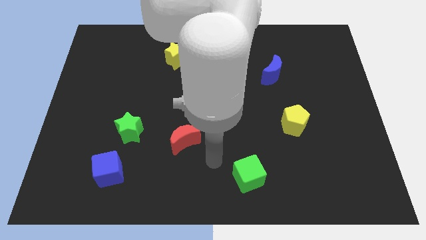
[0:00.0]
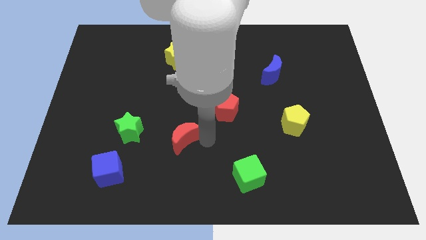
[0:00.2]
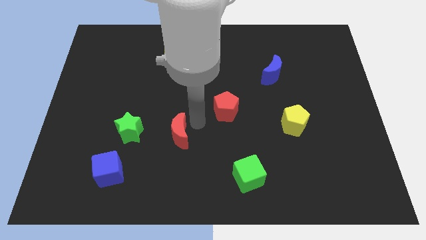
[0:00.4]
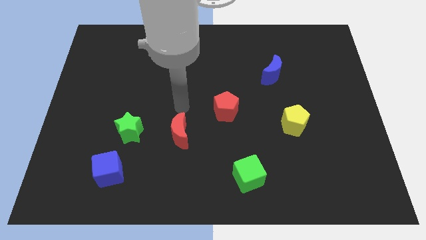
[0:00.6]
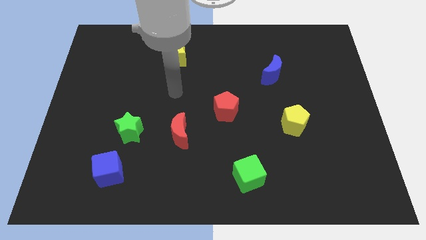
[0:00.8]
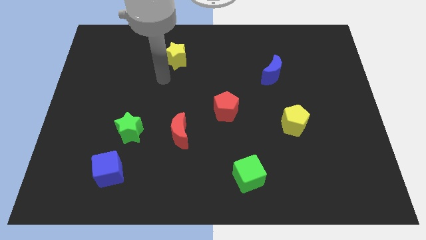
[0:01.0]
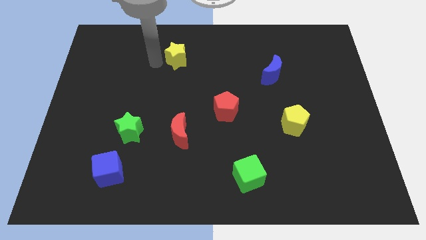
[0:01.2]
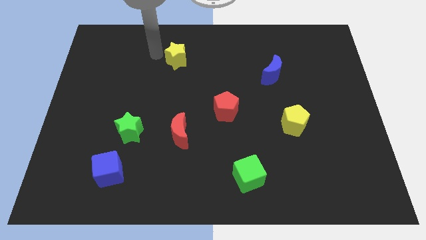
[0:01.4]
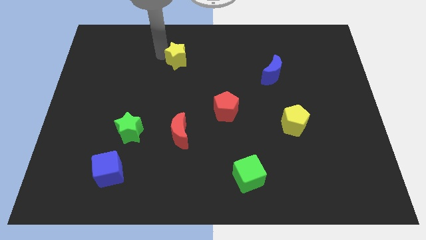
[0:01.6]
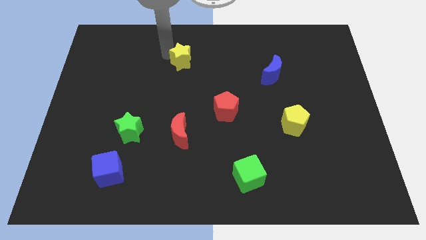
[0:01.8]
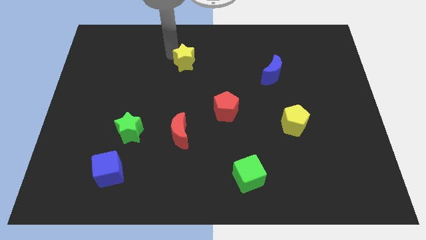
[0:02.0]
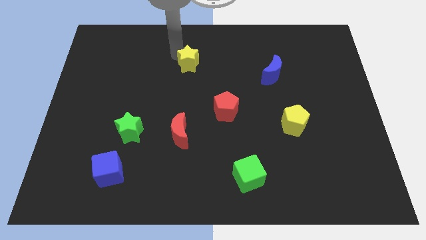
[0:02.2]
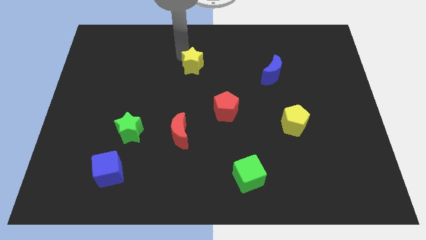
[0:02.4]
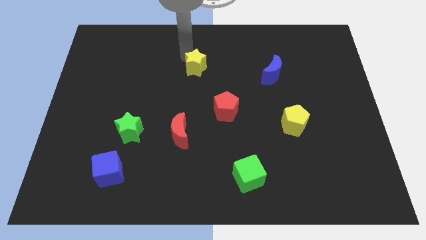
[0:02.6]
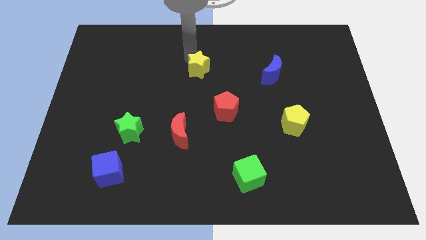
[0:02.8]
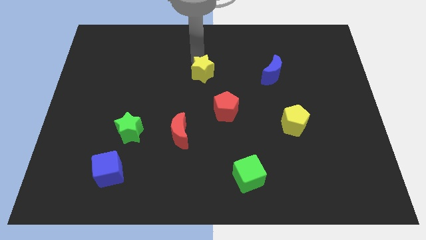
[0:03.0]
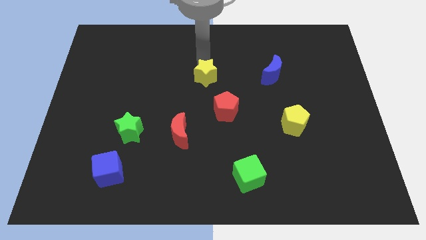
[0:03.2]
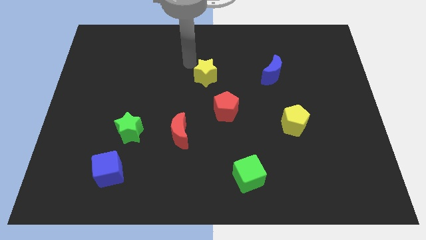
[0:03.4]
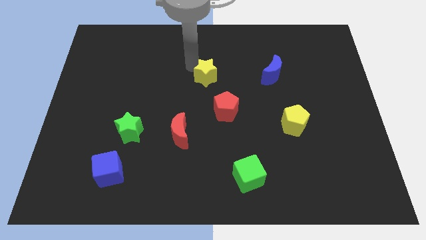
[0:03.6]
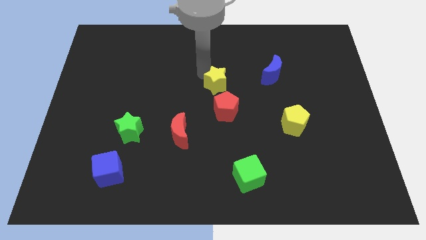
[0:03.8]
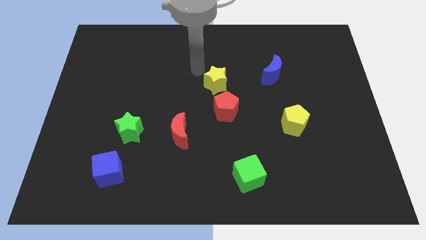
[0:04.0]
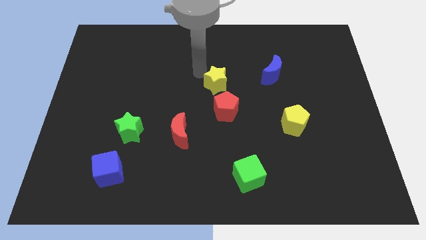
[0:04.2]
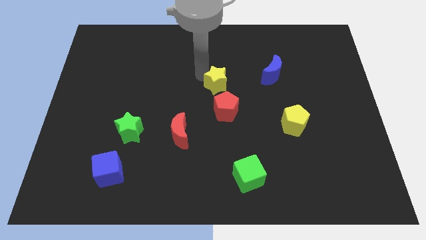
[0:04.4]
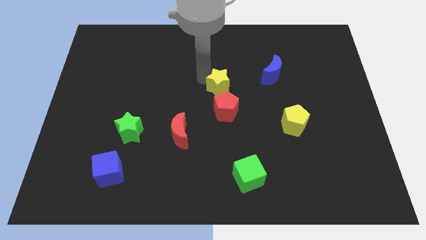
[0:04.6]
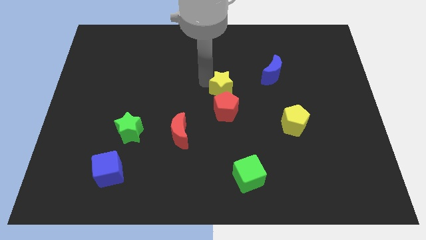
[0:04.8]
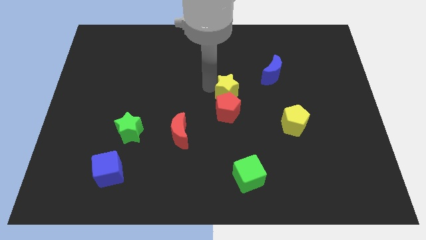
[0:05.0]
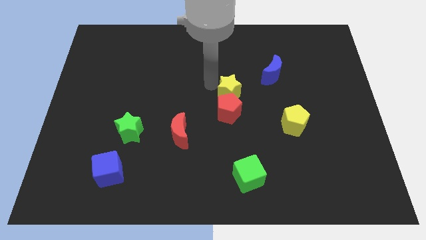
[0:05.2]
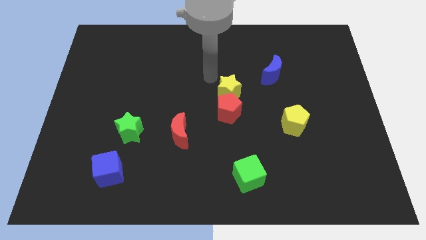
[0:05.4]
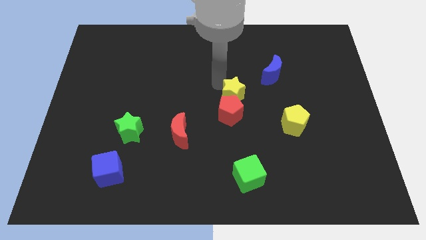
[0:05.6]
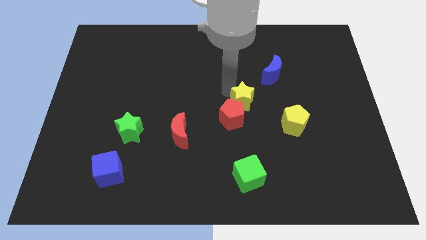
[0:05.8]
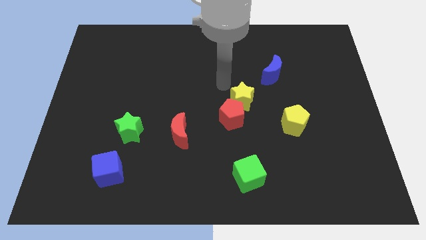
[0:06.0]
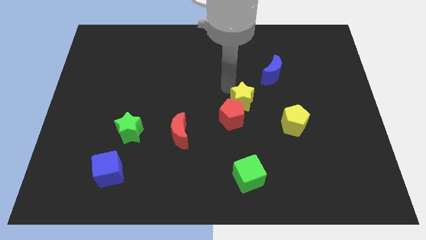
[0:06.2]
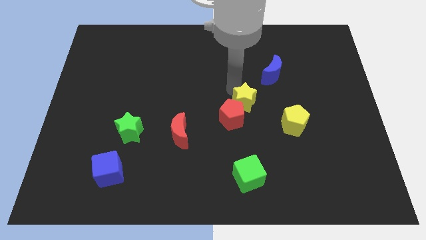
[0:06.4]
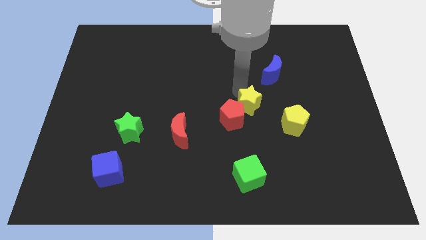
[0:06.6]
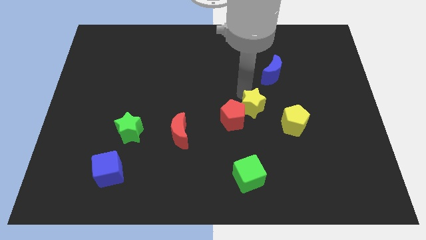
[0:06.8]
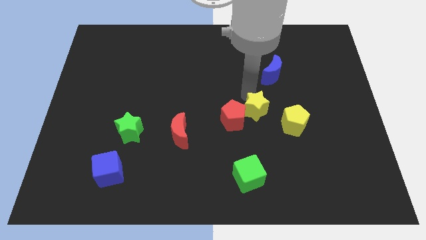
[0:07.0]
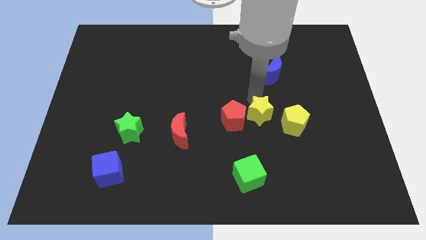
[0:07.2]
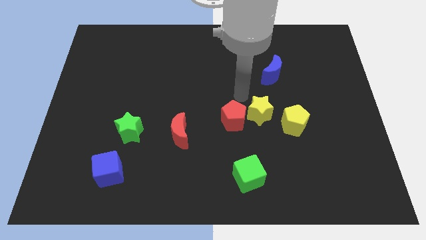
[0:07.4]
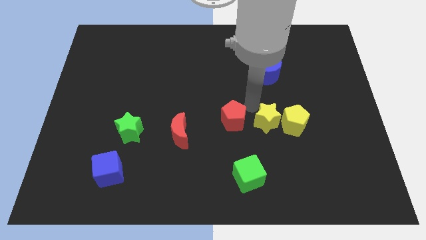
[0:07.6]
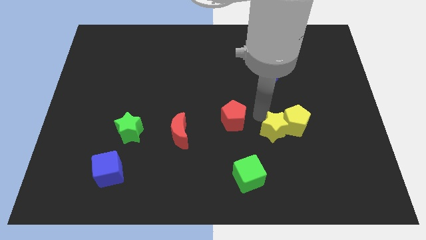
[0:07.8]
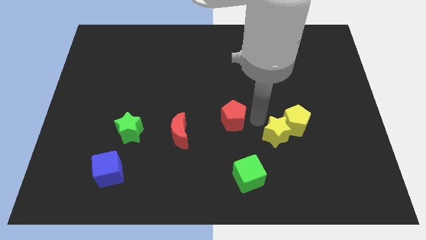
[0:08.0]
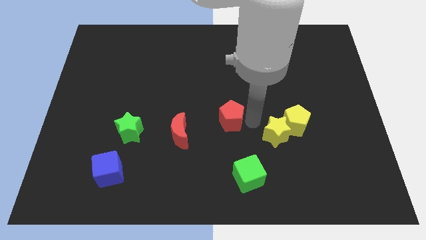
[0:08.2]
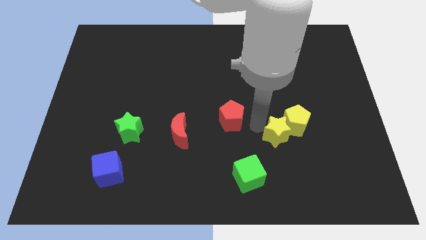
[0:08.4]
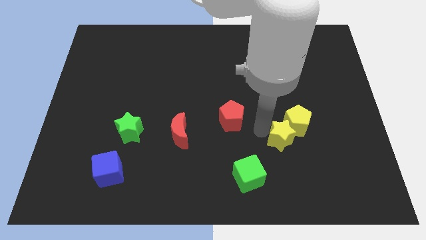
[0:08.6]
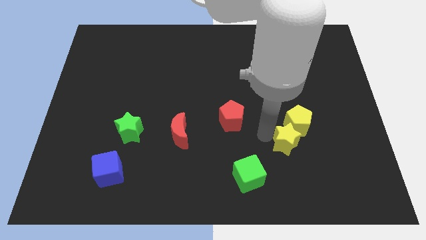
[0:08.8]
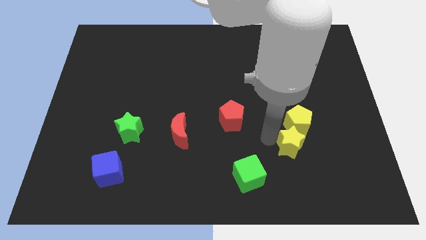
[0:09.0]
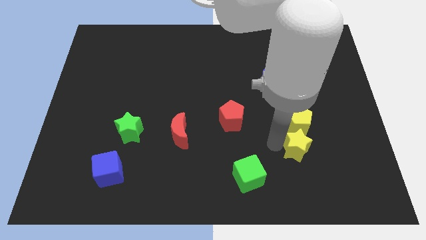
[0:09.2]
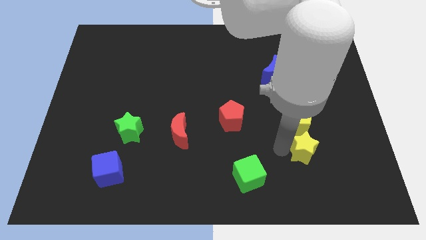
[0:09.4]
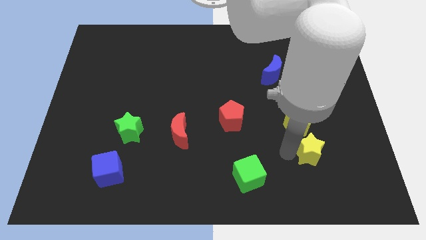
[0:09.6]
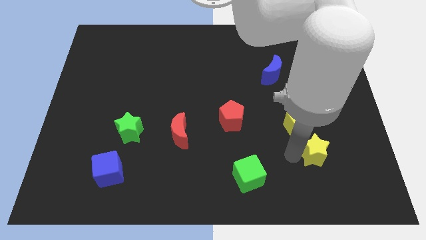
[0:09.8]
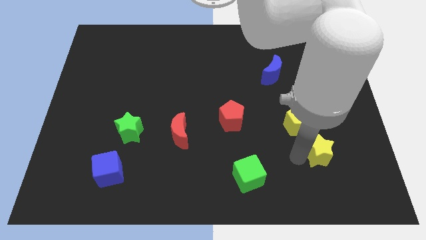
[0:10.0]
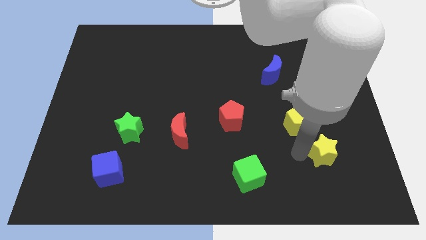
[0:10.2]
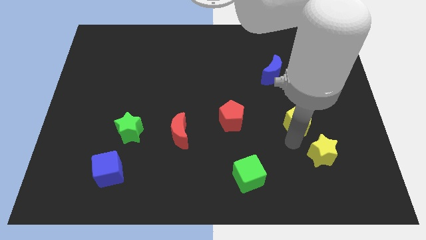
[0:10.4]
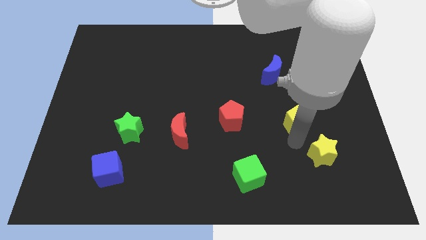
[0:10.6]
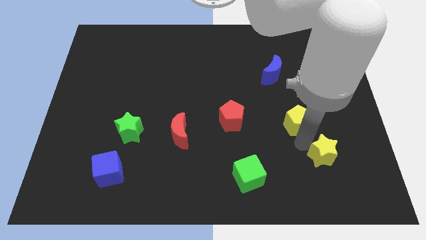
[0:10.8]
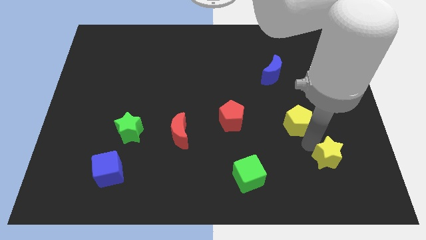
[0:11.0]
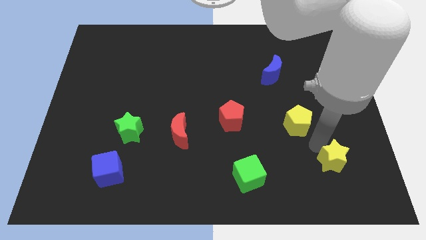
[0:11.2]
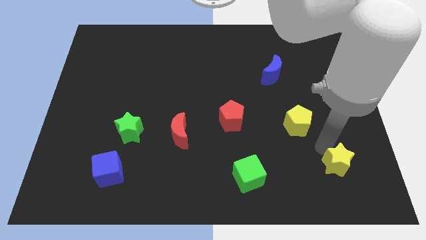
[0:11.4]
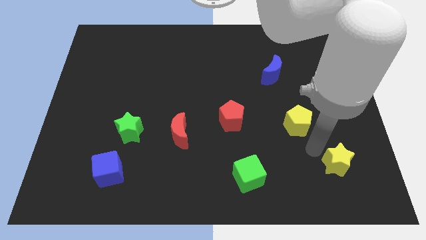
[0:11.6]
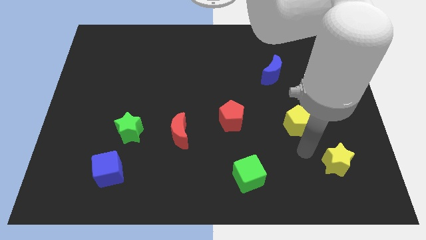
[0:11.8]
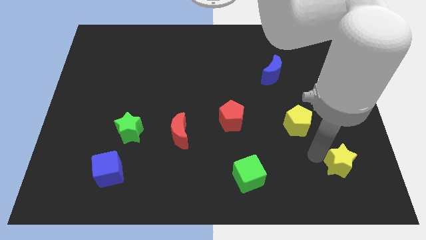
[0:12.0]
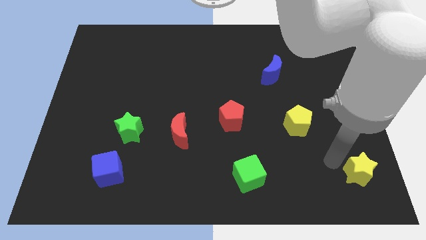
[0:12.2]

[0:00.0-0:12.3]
put the yellow star to the bottom right
